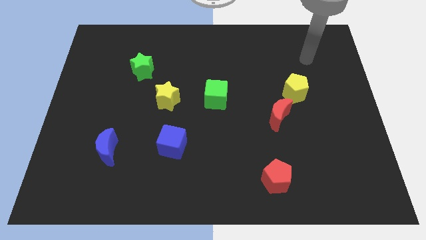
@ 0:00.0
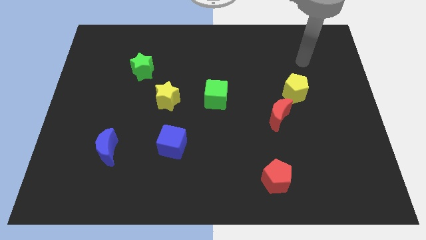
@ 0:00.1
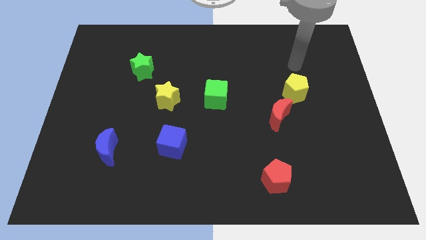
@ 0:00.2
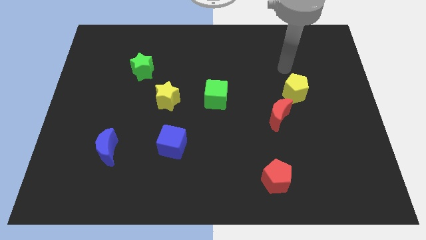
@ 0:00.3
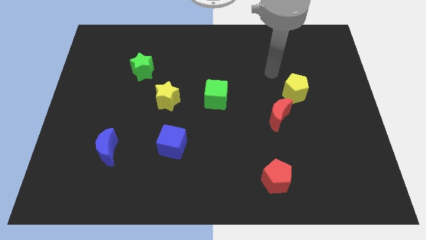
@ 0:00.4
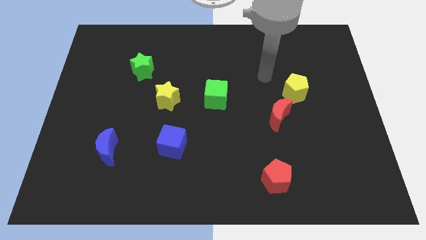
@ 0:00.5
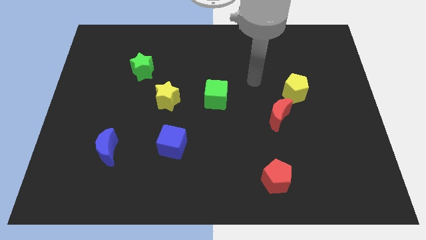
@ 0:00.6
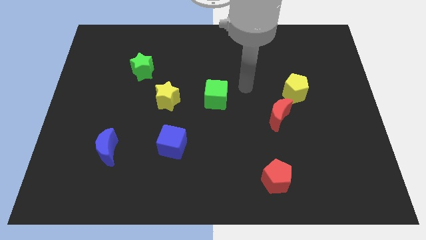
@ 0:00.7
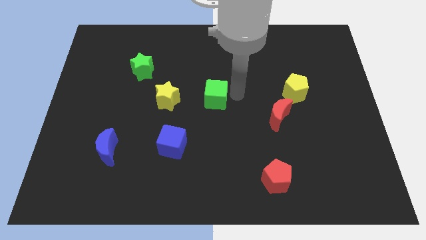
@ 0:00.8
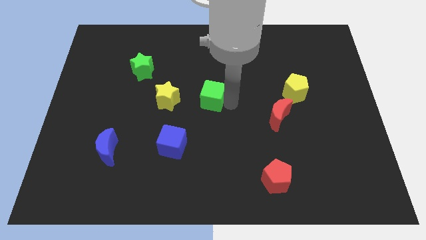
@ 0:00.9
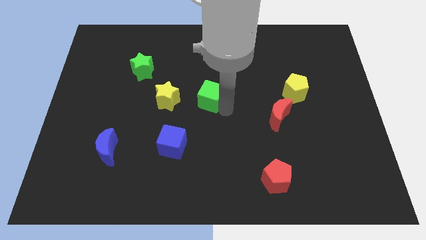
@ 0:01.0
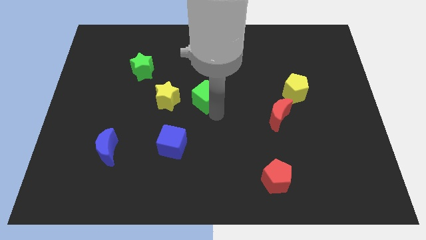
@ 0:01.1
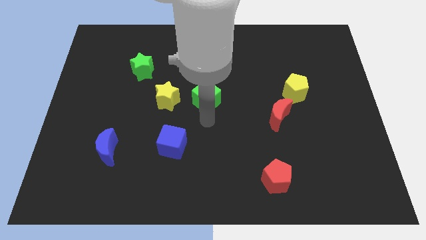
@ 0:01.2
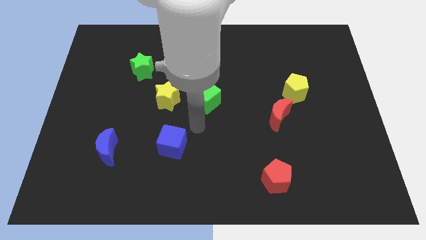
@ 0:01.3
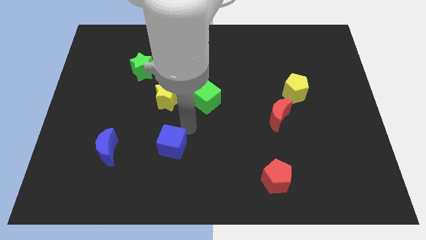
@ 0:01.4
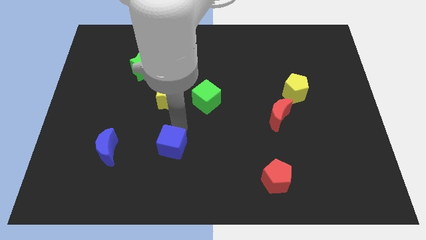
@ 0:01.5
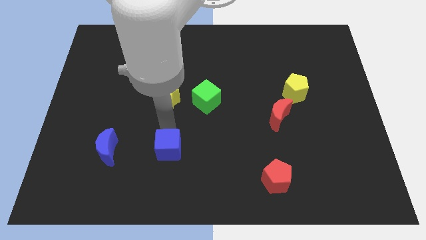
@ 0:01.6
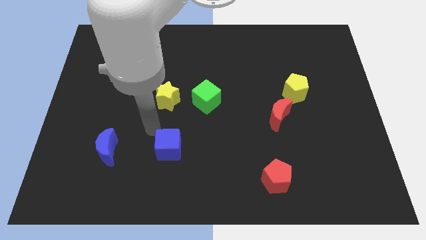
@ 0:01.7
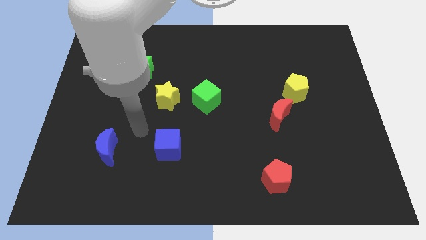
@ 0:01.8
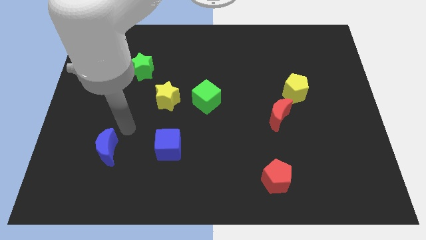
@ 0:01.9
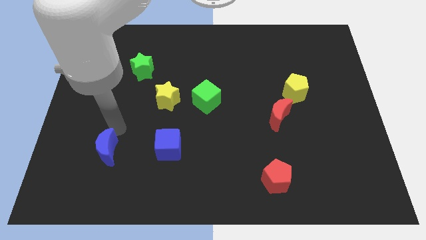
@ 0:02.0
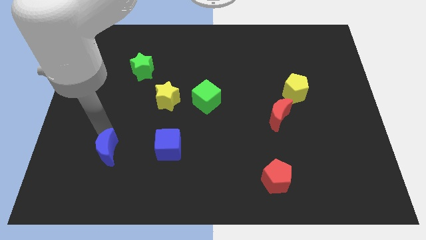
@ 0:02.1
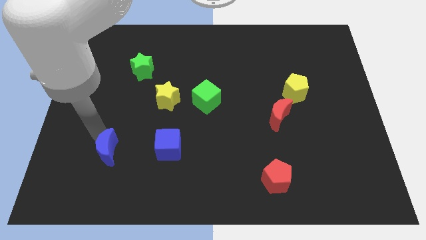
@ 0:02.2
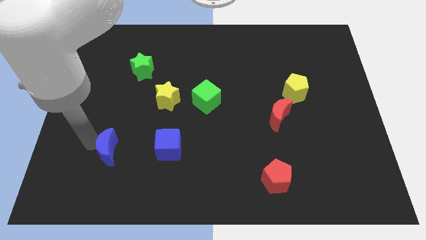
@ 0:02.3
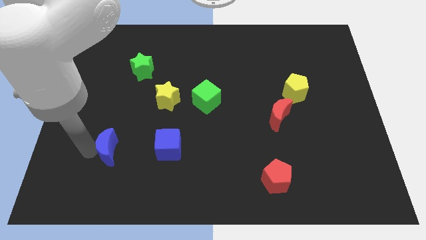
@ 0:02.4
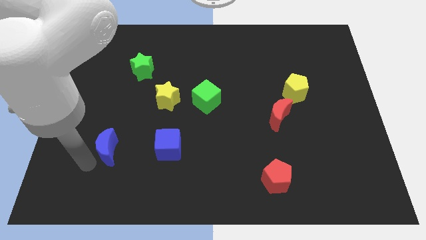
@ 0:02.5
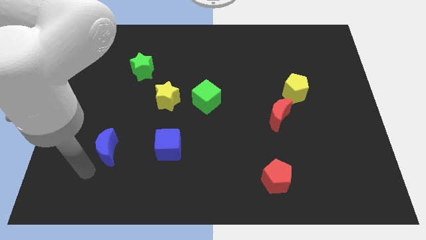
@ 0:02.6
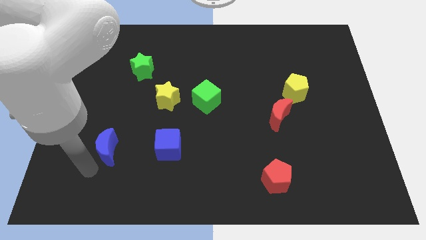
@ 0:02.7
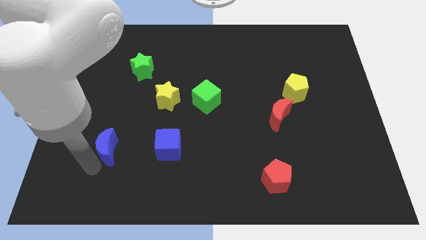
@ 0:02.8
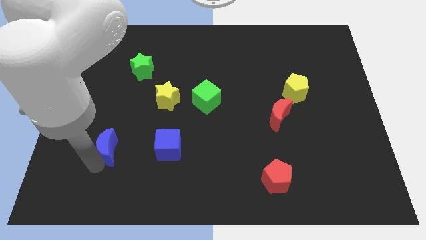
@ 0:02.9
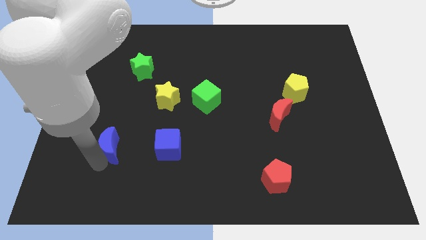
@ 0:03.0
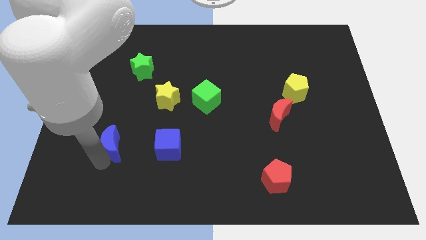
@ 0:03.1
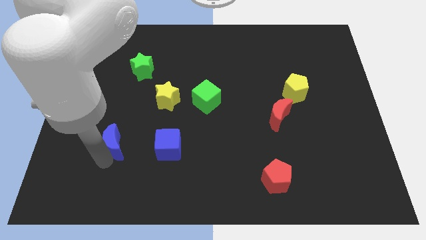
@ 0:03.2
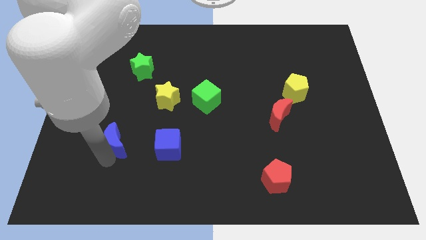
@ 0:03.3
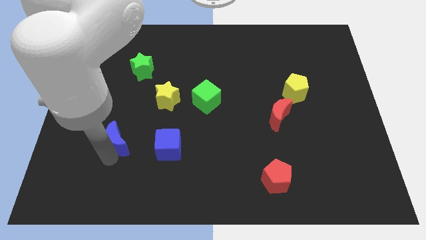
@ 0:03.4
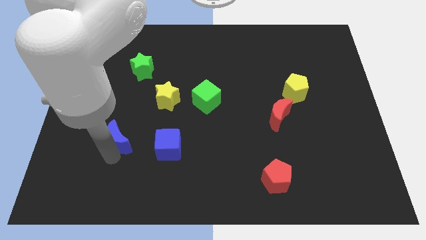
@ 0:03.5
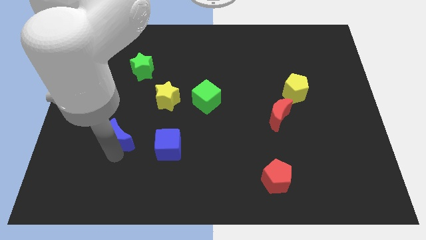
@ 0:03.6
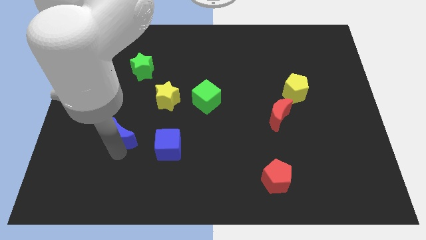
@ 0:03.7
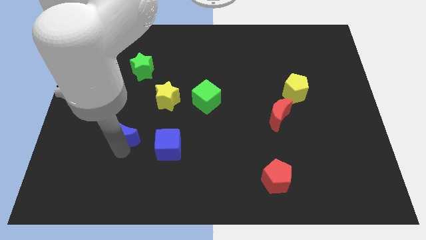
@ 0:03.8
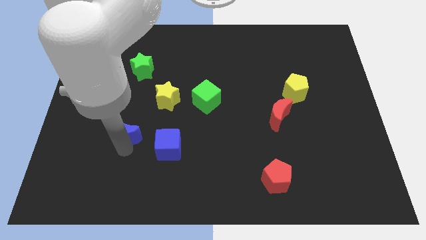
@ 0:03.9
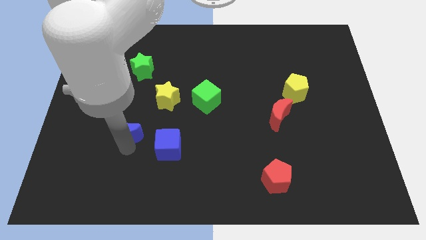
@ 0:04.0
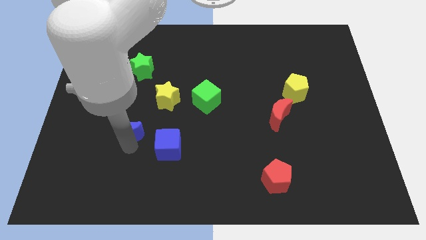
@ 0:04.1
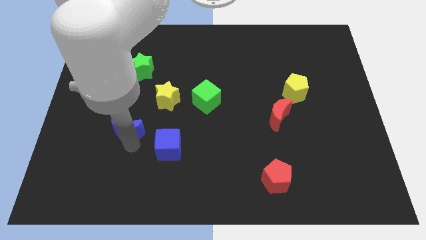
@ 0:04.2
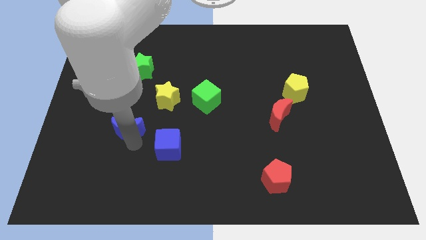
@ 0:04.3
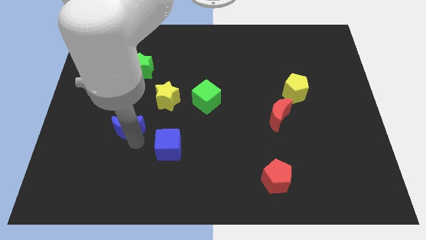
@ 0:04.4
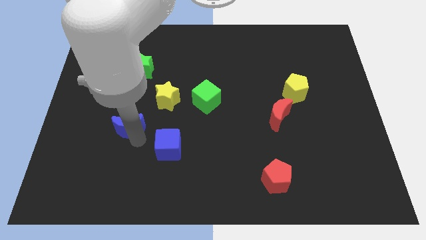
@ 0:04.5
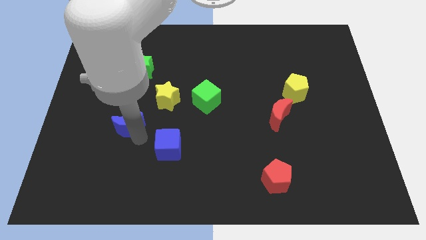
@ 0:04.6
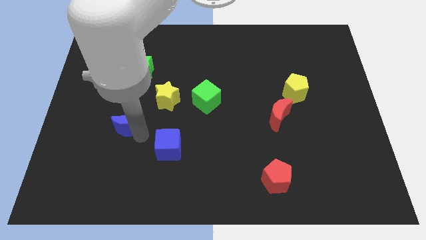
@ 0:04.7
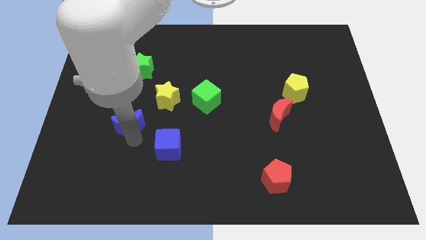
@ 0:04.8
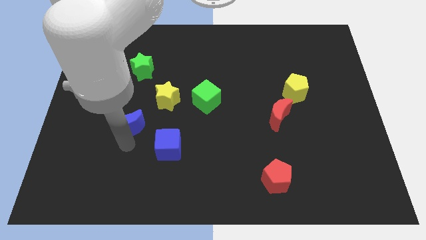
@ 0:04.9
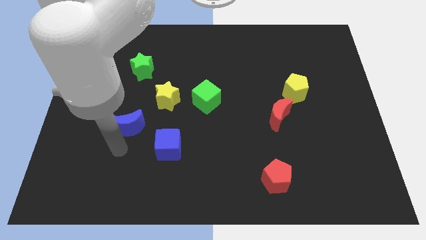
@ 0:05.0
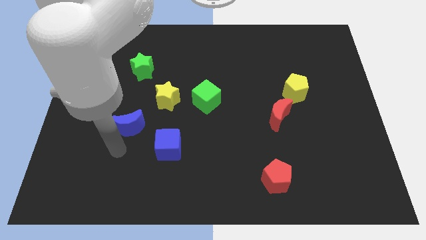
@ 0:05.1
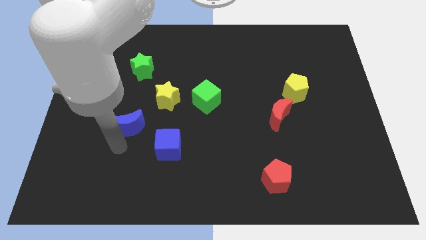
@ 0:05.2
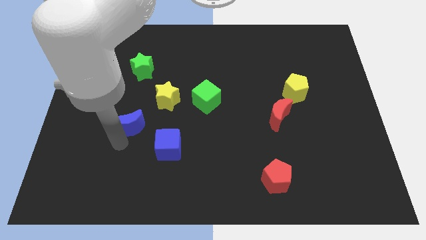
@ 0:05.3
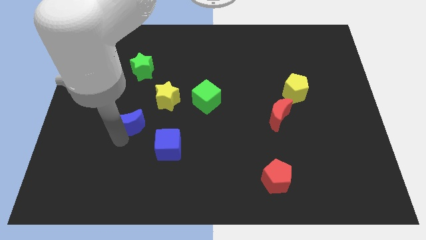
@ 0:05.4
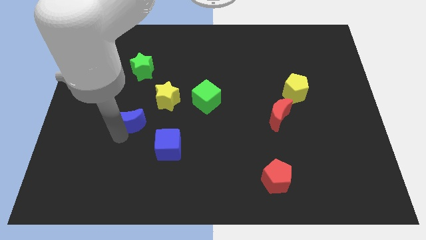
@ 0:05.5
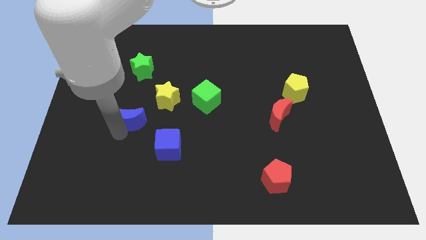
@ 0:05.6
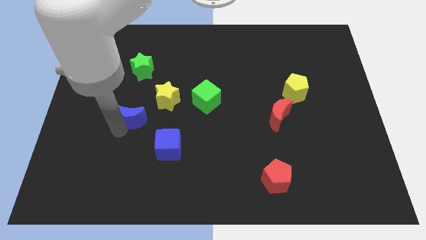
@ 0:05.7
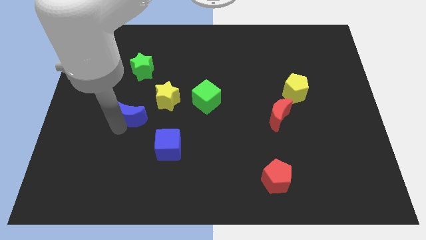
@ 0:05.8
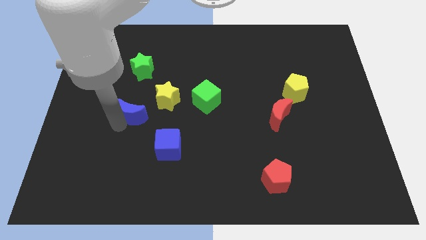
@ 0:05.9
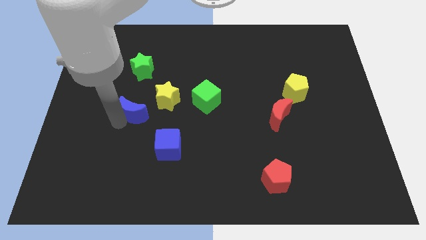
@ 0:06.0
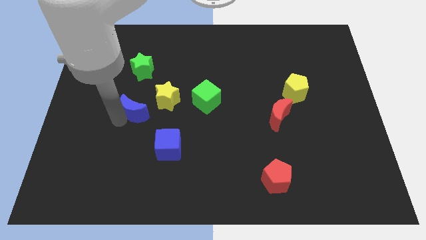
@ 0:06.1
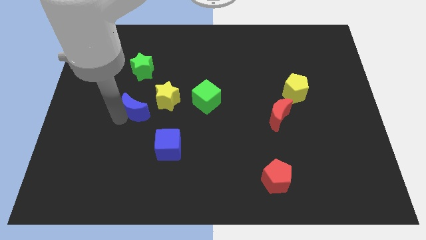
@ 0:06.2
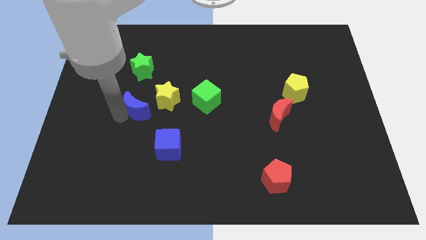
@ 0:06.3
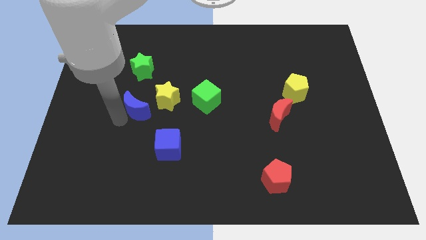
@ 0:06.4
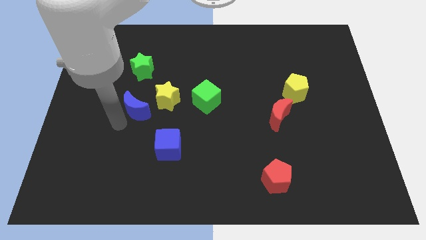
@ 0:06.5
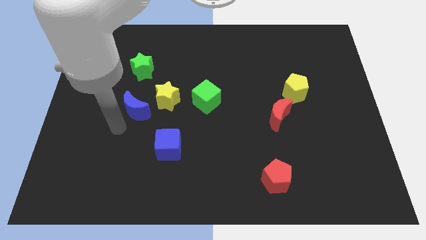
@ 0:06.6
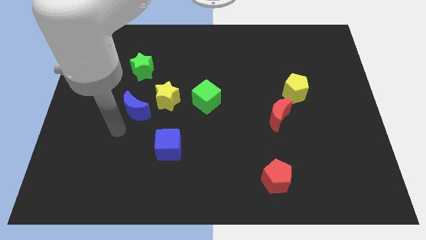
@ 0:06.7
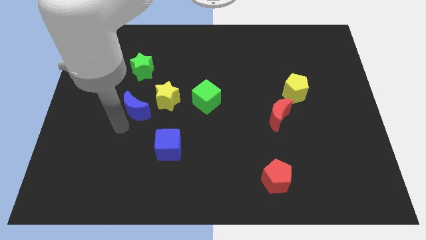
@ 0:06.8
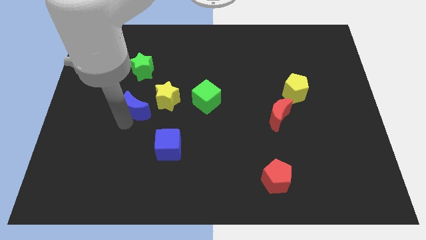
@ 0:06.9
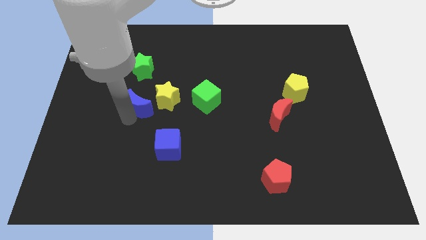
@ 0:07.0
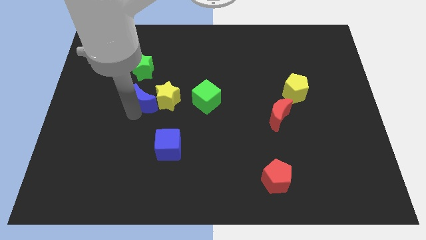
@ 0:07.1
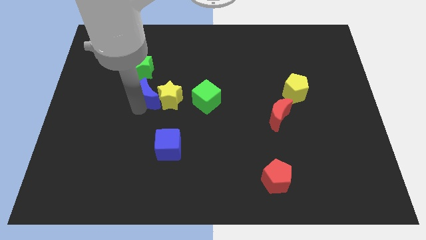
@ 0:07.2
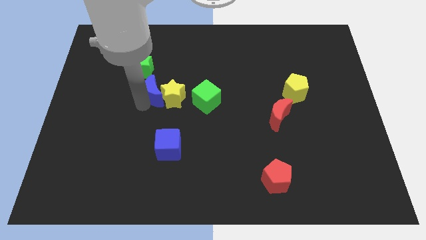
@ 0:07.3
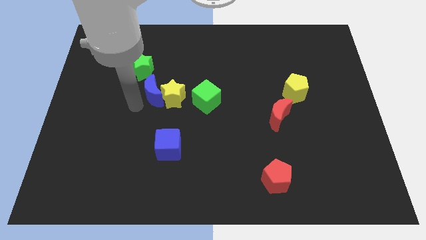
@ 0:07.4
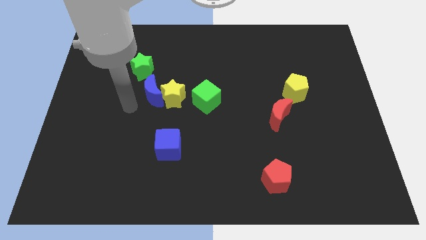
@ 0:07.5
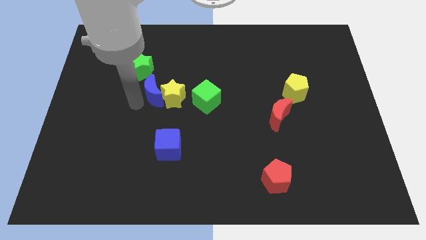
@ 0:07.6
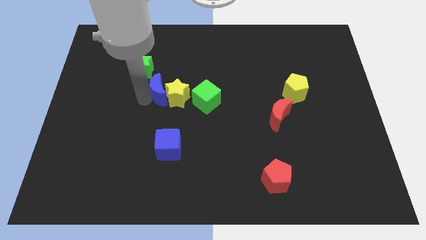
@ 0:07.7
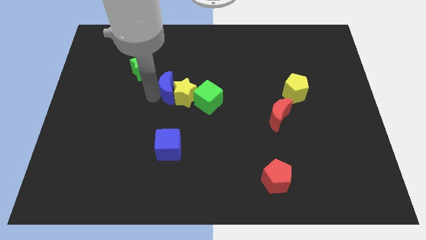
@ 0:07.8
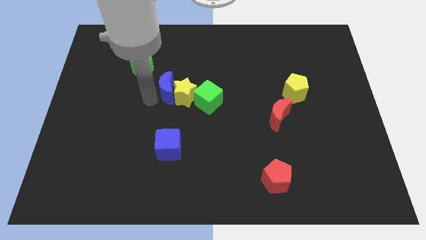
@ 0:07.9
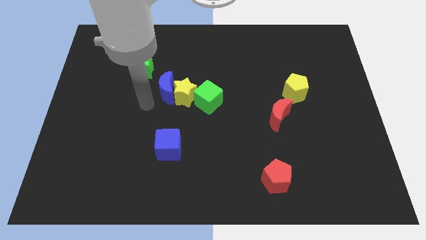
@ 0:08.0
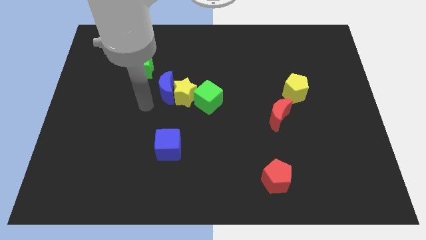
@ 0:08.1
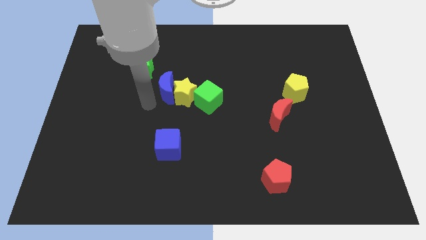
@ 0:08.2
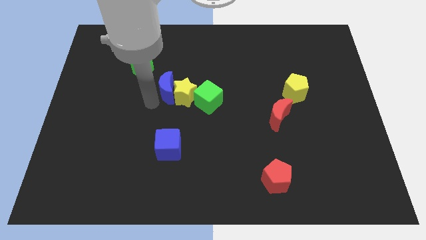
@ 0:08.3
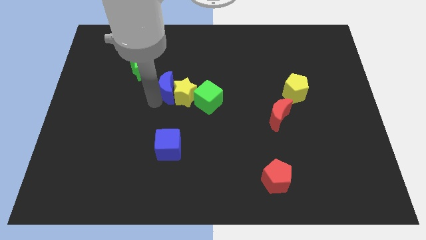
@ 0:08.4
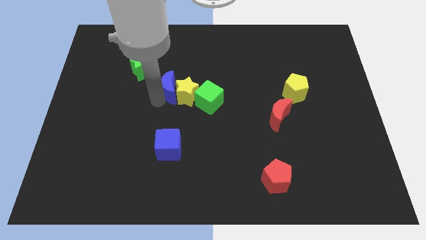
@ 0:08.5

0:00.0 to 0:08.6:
slide the blue moon diagonally upwards and right
